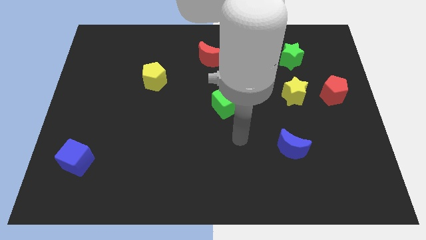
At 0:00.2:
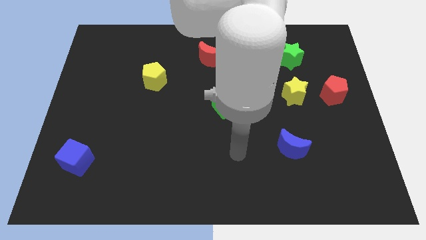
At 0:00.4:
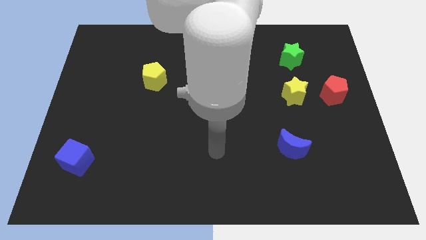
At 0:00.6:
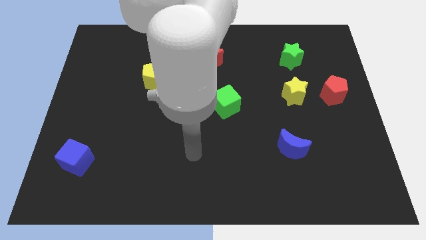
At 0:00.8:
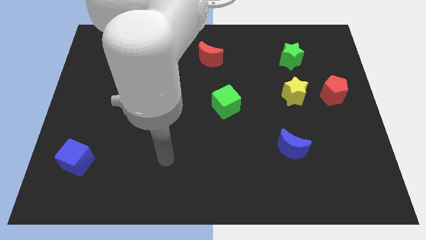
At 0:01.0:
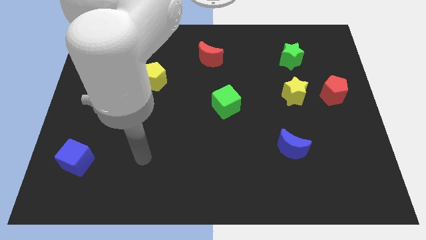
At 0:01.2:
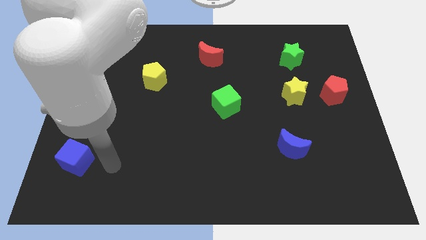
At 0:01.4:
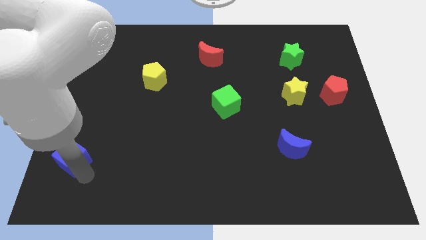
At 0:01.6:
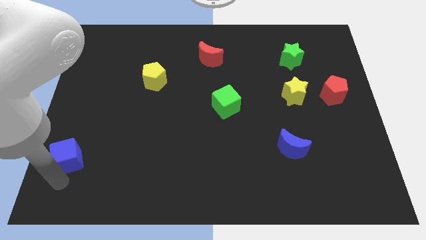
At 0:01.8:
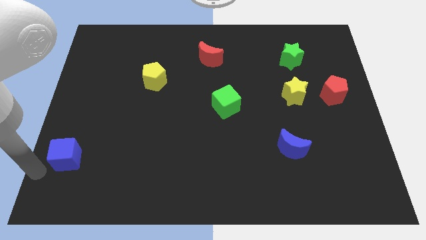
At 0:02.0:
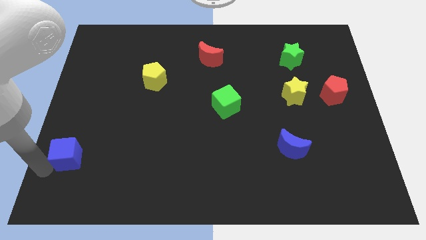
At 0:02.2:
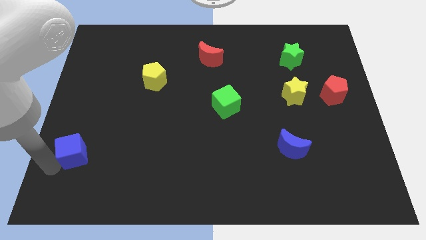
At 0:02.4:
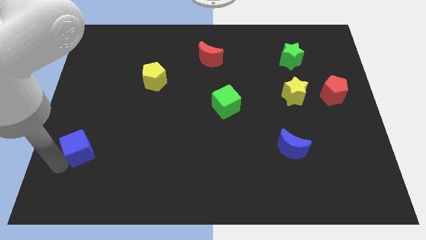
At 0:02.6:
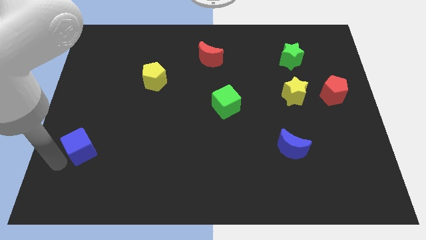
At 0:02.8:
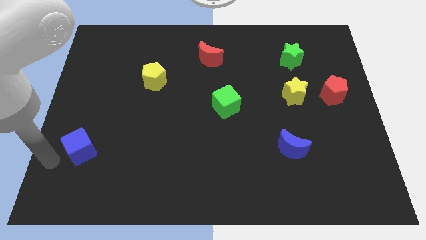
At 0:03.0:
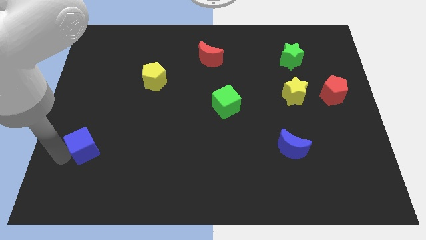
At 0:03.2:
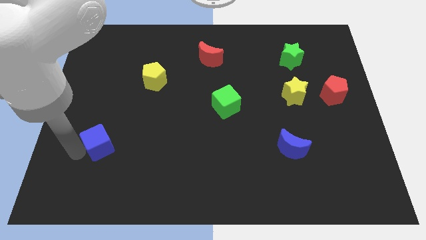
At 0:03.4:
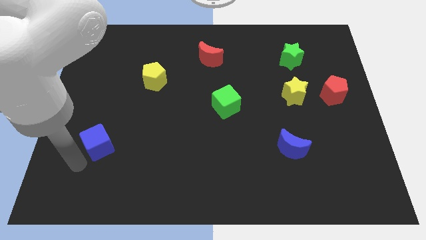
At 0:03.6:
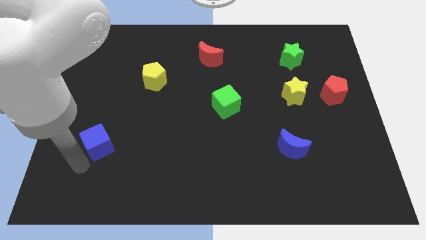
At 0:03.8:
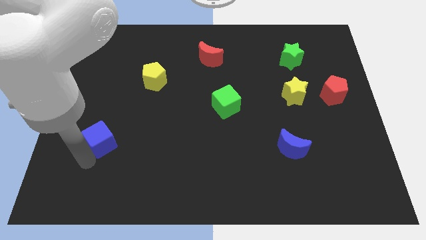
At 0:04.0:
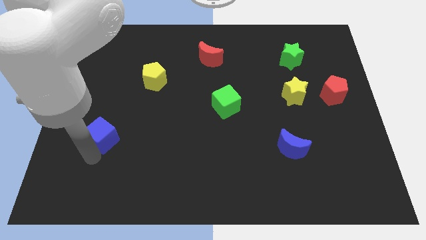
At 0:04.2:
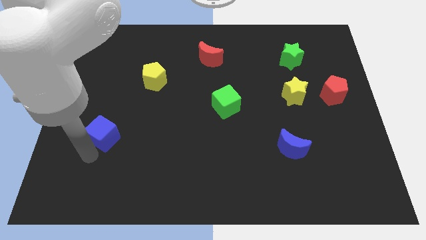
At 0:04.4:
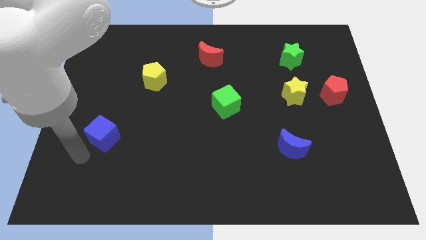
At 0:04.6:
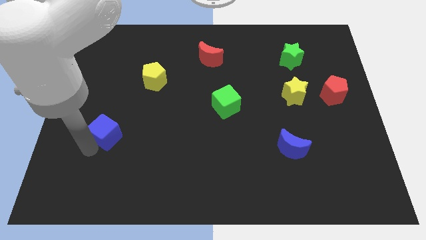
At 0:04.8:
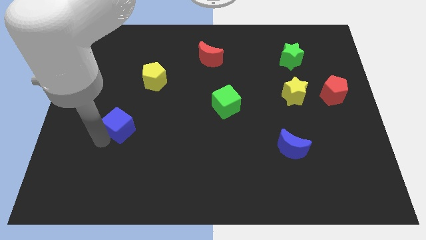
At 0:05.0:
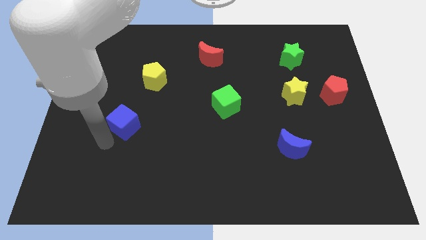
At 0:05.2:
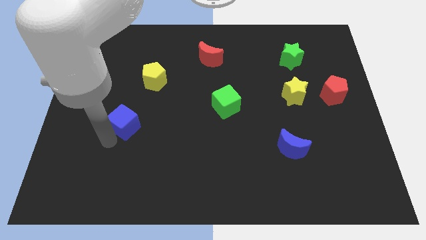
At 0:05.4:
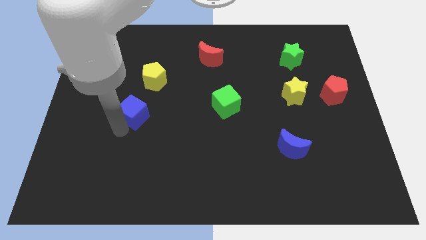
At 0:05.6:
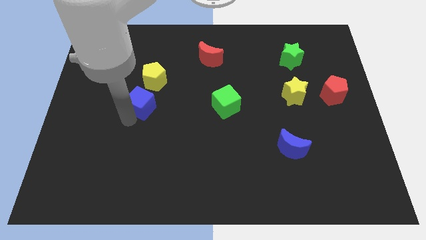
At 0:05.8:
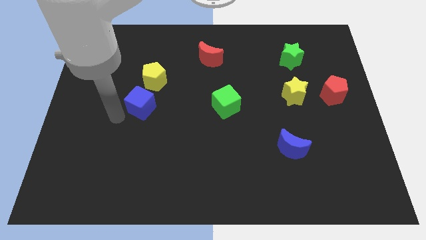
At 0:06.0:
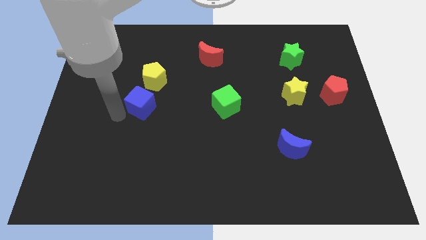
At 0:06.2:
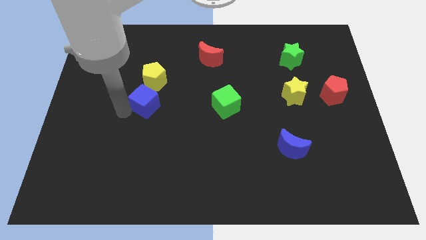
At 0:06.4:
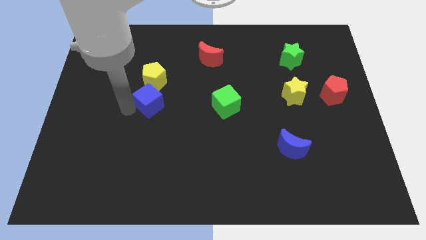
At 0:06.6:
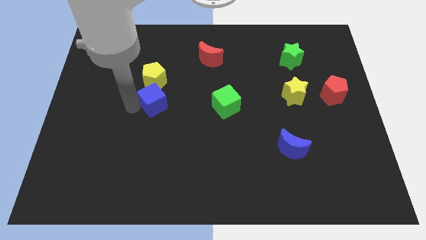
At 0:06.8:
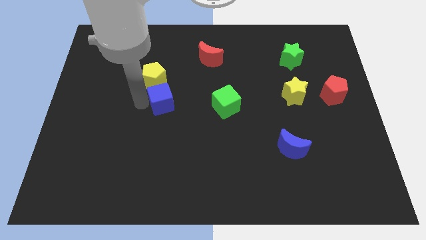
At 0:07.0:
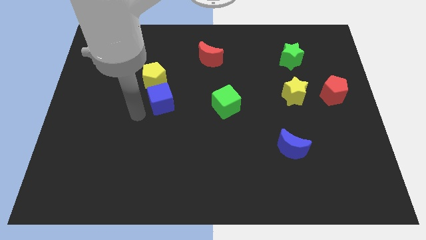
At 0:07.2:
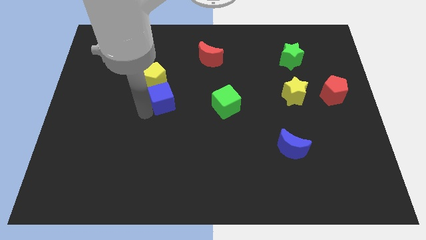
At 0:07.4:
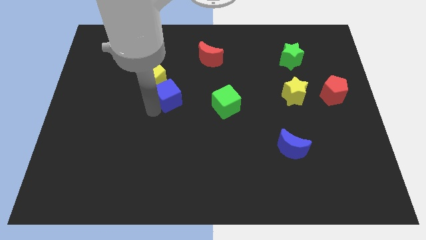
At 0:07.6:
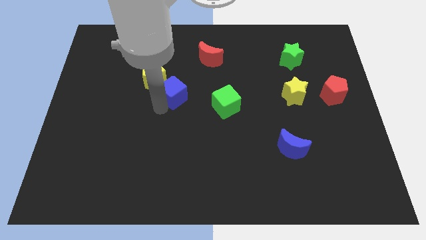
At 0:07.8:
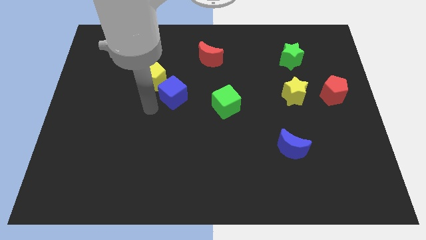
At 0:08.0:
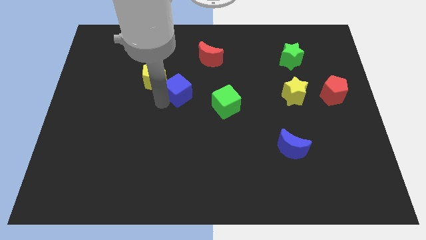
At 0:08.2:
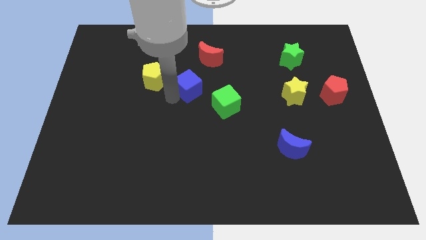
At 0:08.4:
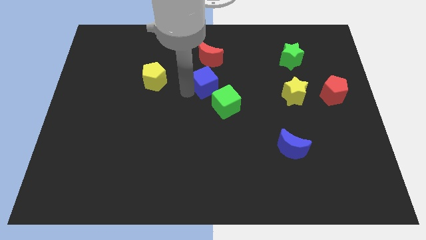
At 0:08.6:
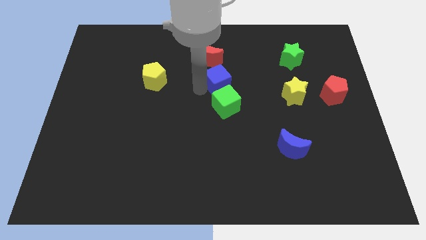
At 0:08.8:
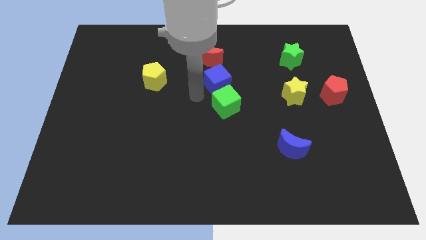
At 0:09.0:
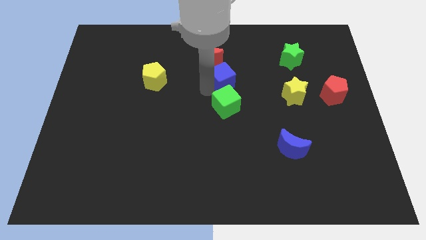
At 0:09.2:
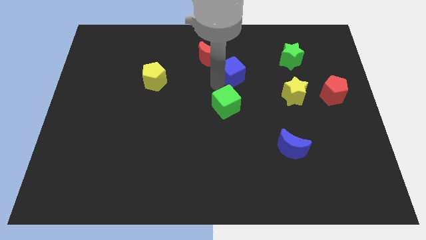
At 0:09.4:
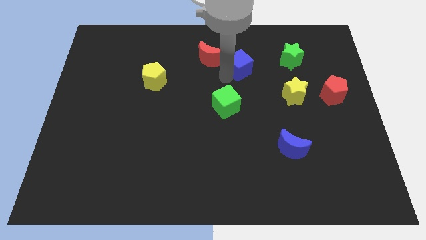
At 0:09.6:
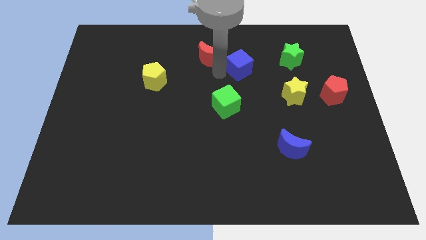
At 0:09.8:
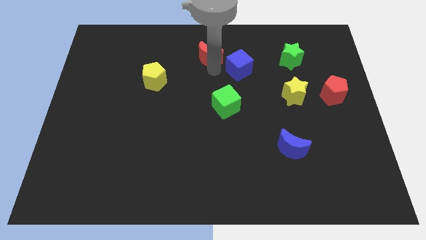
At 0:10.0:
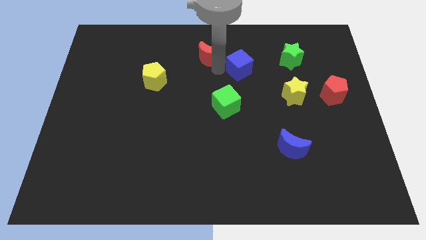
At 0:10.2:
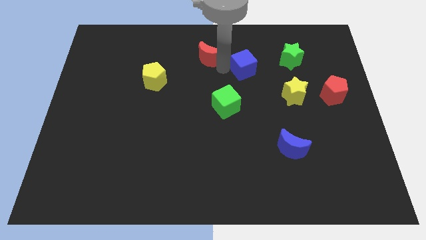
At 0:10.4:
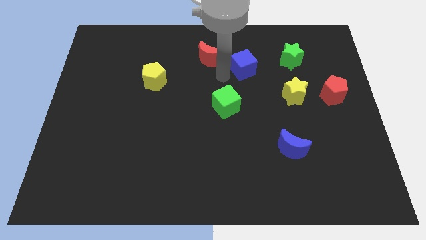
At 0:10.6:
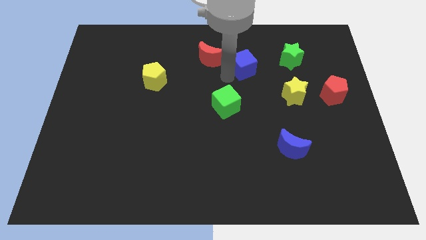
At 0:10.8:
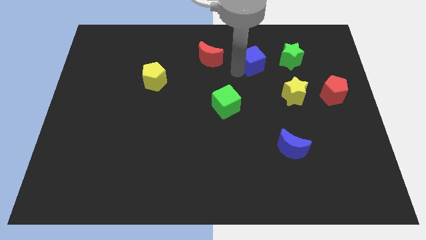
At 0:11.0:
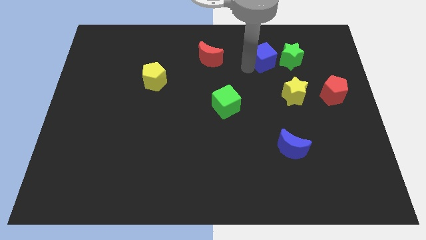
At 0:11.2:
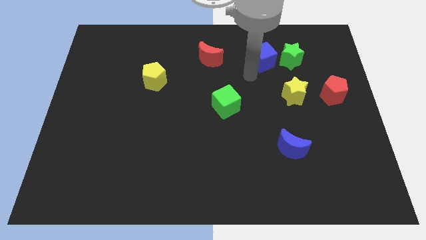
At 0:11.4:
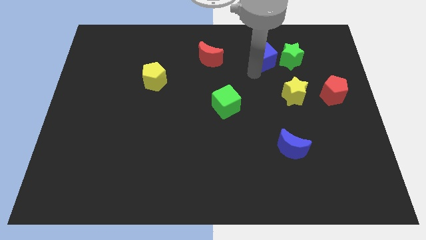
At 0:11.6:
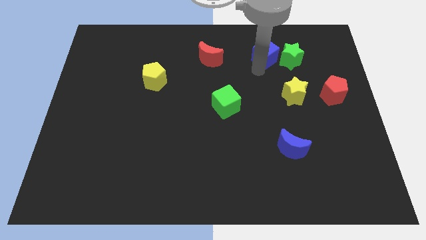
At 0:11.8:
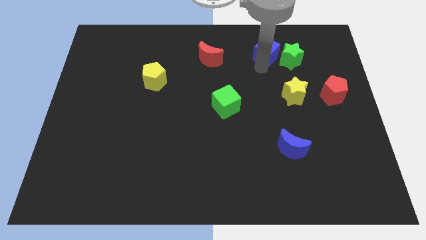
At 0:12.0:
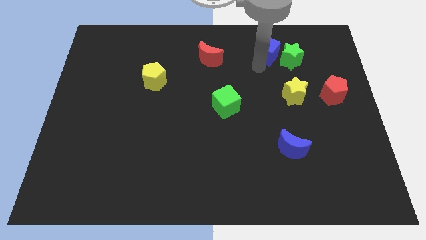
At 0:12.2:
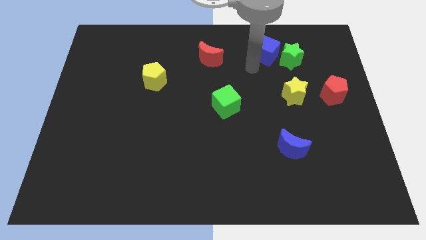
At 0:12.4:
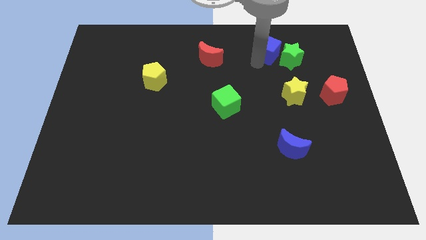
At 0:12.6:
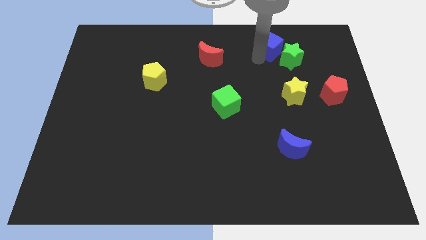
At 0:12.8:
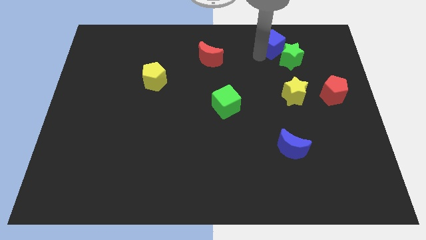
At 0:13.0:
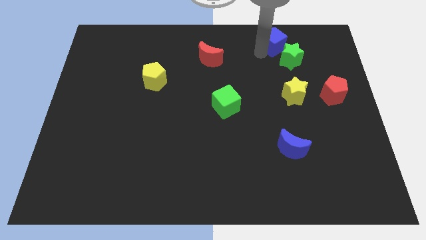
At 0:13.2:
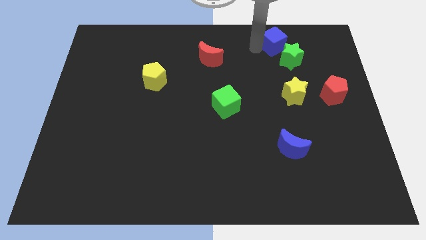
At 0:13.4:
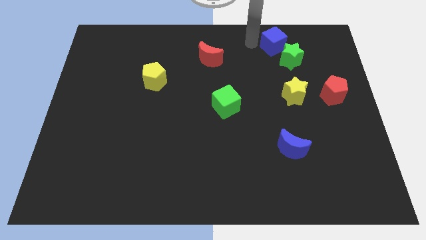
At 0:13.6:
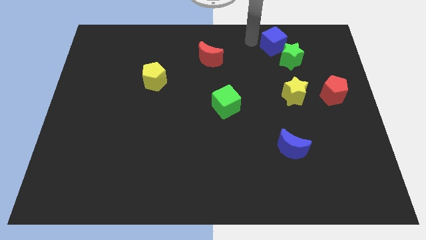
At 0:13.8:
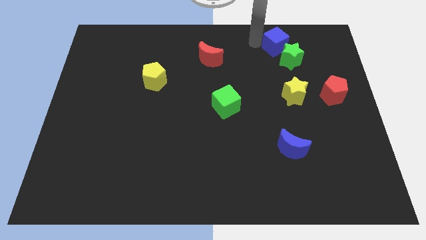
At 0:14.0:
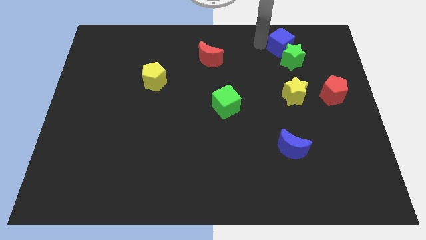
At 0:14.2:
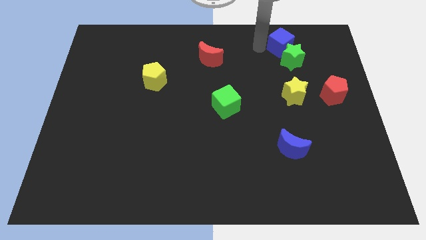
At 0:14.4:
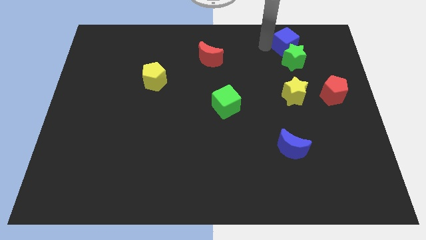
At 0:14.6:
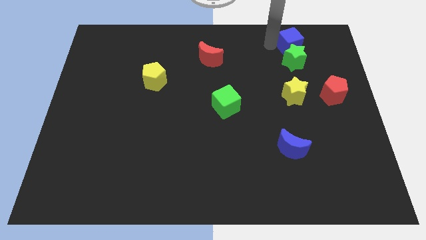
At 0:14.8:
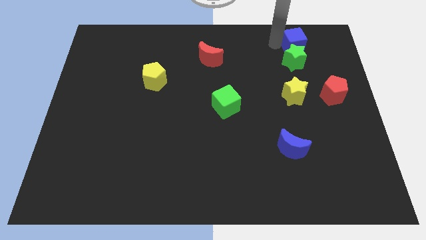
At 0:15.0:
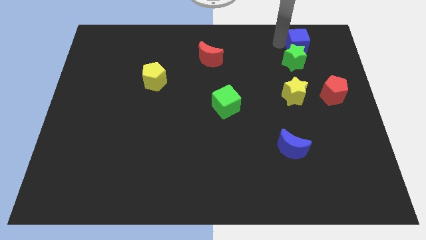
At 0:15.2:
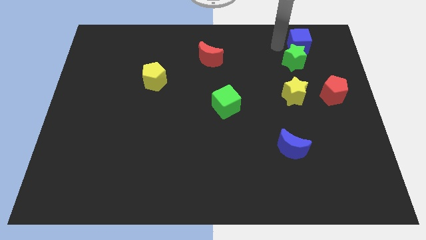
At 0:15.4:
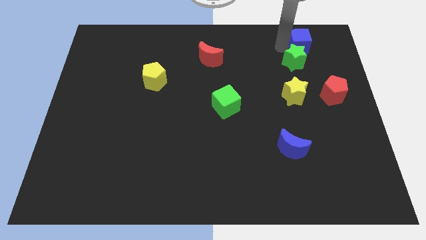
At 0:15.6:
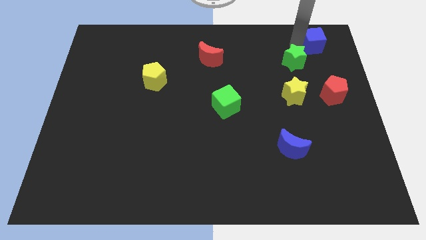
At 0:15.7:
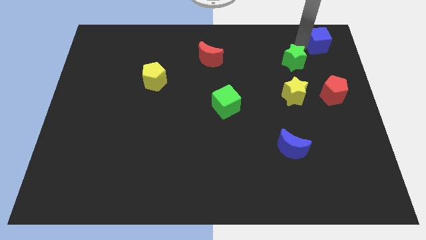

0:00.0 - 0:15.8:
push the blue cube to the top right corner

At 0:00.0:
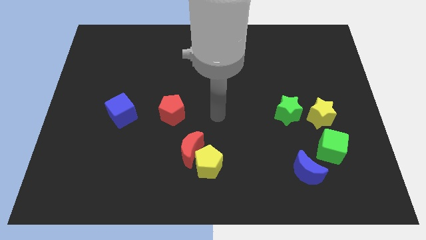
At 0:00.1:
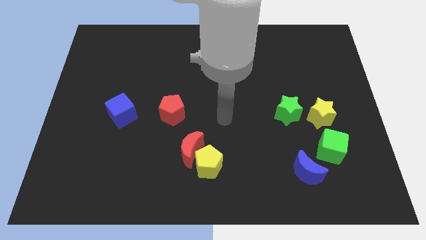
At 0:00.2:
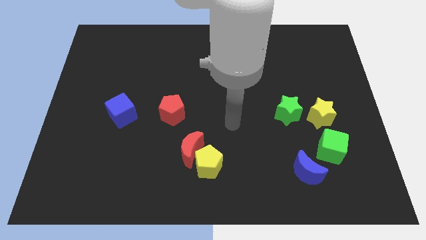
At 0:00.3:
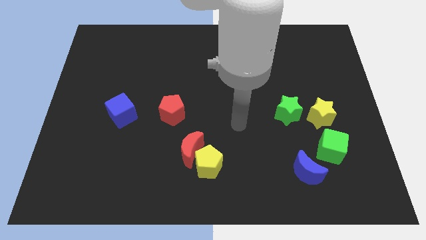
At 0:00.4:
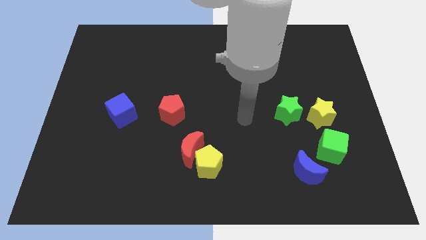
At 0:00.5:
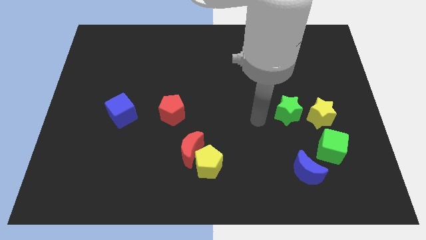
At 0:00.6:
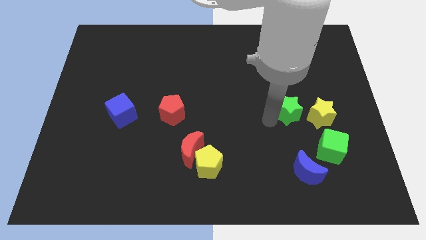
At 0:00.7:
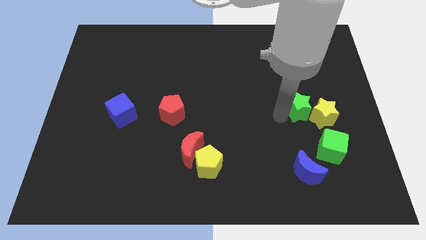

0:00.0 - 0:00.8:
put the yellow star to the right side of the board
